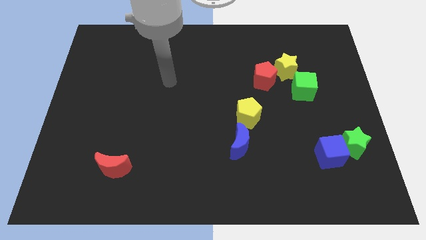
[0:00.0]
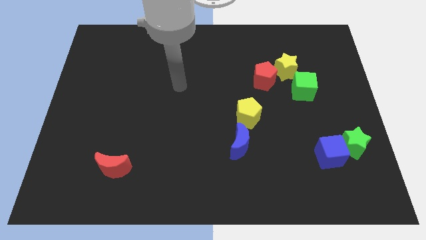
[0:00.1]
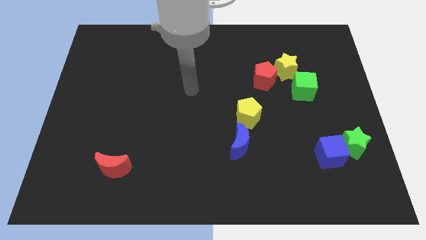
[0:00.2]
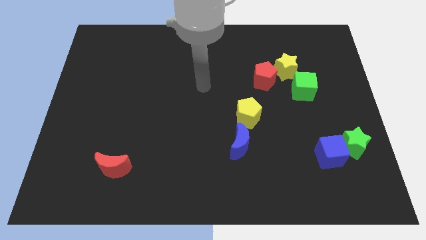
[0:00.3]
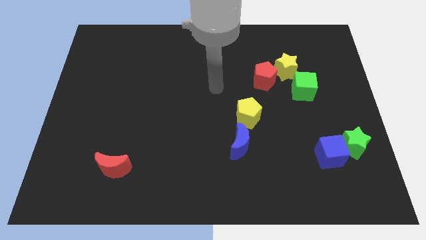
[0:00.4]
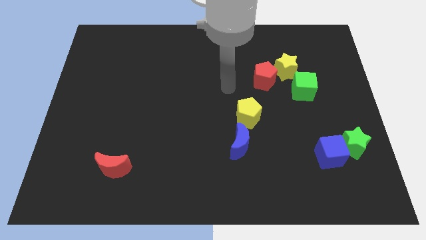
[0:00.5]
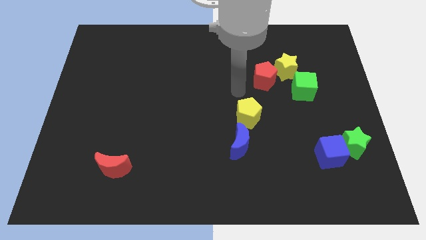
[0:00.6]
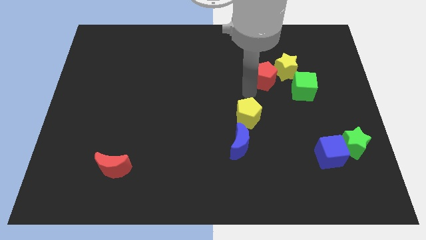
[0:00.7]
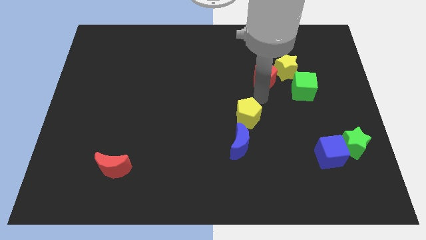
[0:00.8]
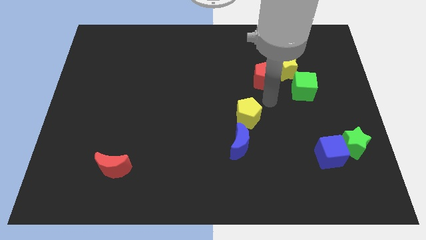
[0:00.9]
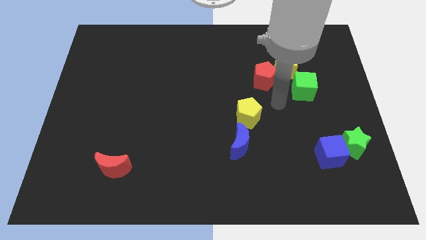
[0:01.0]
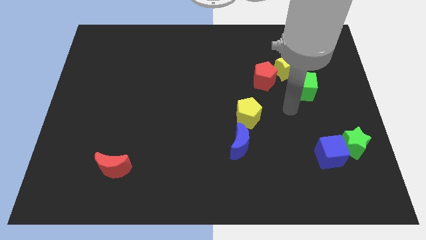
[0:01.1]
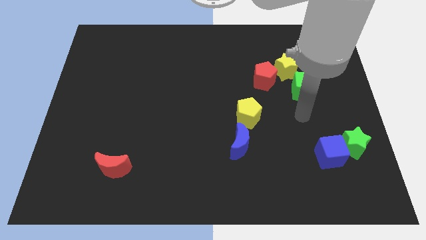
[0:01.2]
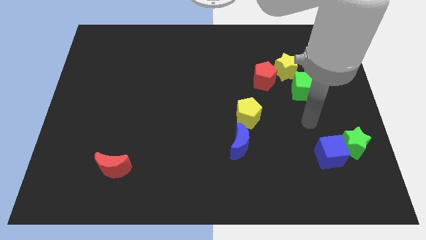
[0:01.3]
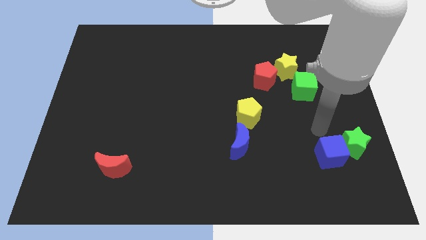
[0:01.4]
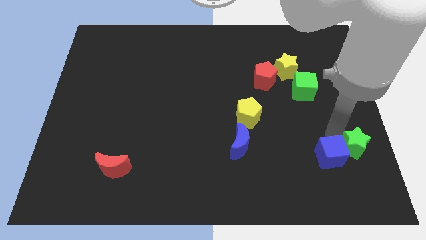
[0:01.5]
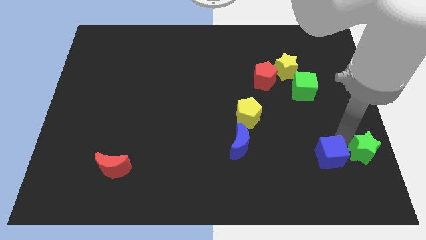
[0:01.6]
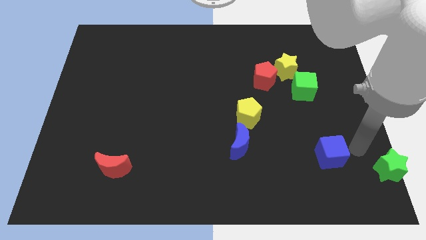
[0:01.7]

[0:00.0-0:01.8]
pull the blue cube apart from the green star

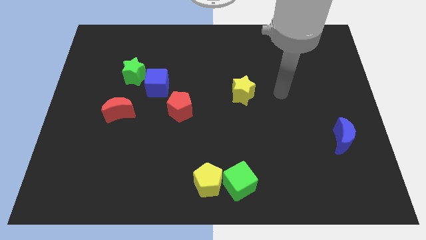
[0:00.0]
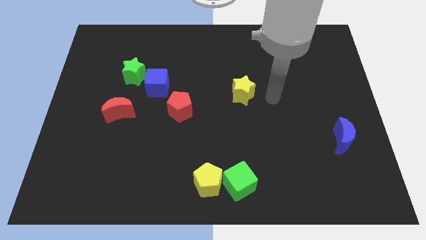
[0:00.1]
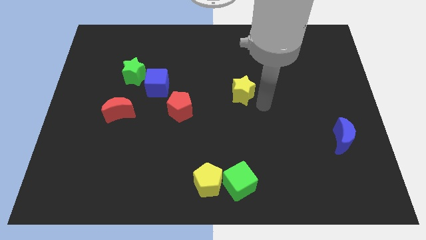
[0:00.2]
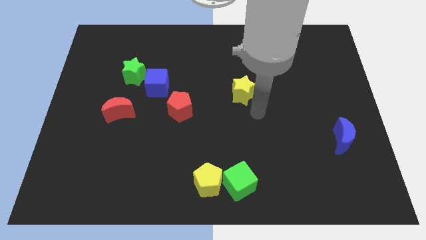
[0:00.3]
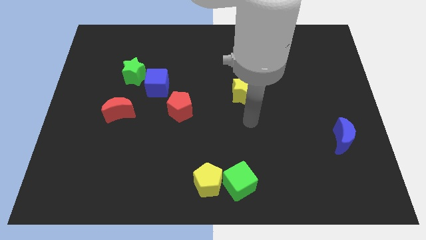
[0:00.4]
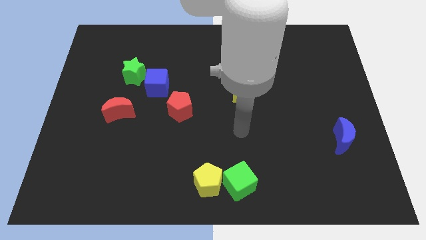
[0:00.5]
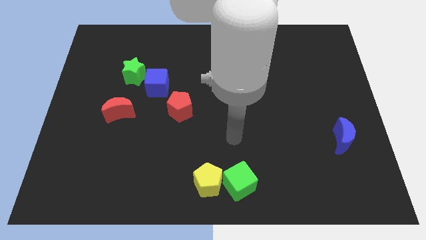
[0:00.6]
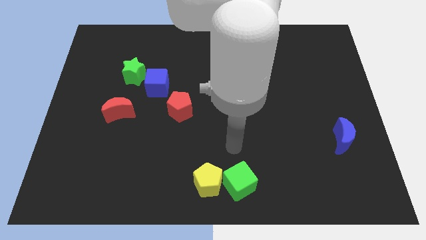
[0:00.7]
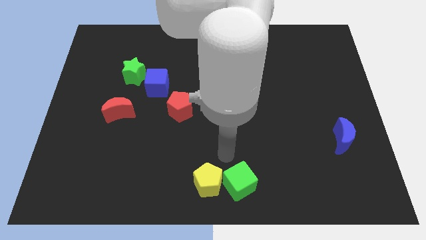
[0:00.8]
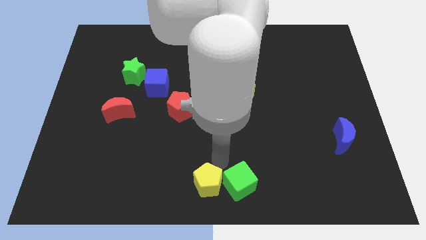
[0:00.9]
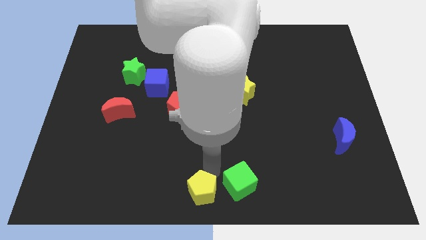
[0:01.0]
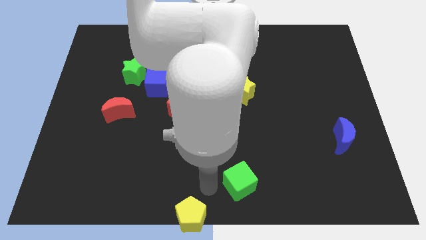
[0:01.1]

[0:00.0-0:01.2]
pull the green cube apart from the yellow pentagon

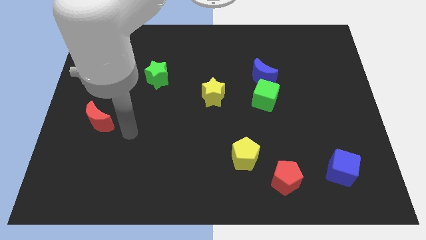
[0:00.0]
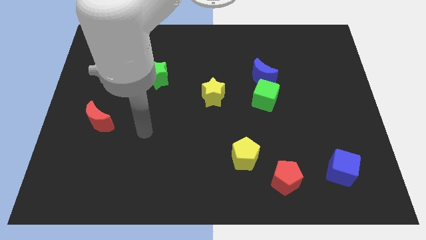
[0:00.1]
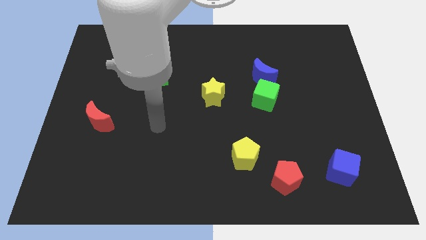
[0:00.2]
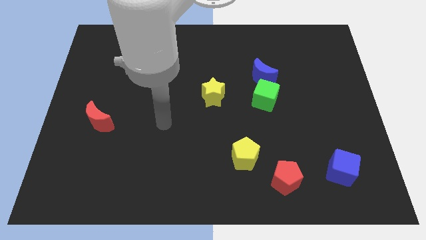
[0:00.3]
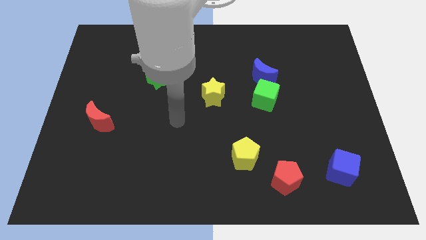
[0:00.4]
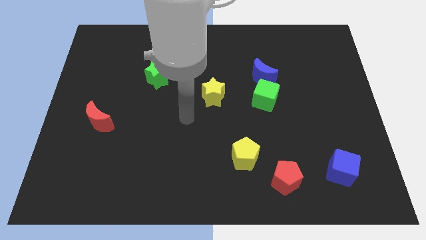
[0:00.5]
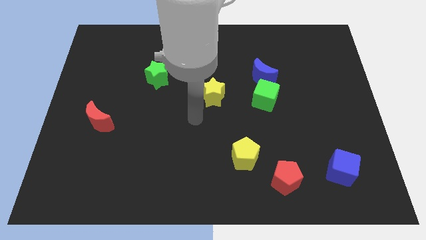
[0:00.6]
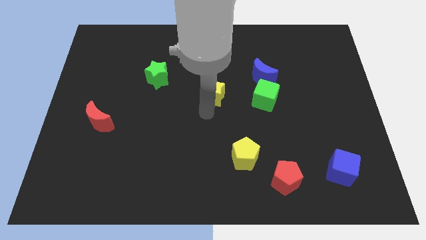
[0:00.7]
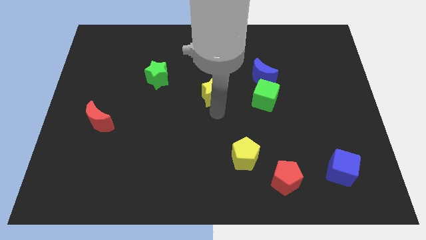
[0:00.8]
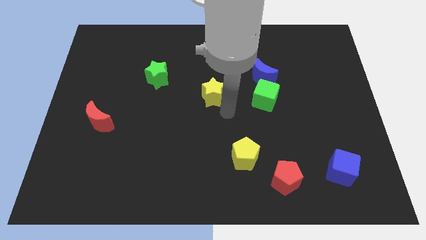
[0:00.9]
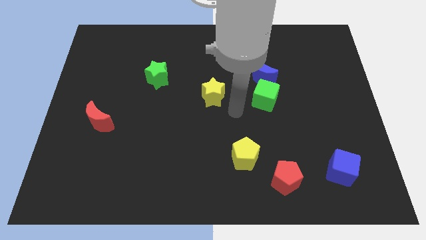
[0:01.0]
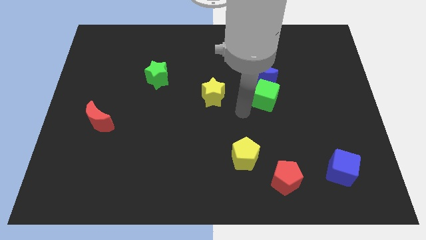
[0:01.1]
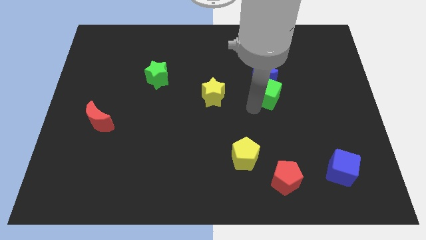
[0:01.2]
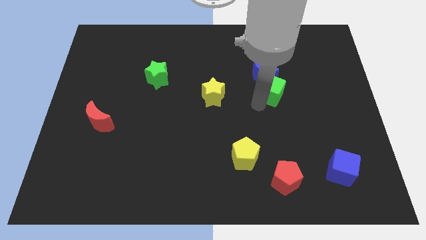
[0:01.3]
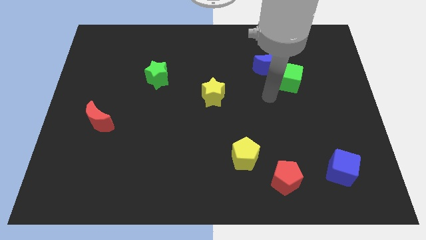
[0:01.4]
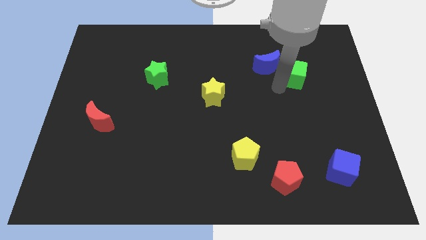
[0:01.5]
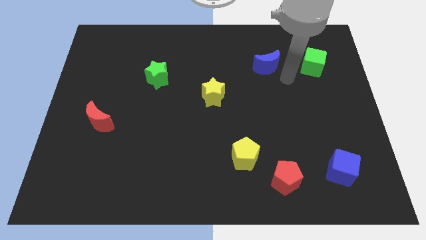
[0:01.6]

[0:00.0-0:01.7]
pull the blue moon apart from the green cube

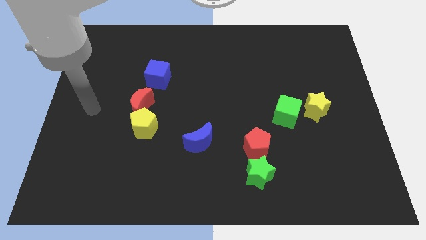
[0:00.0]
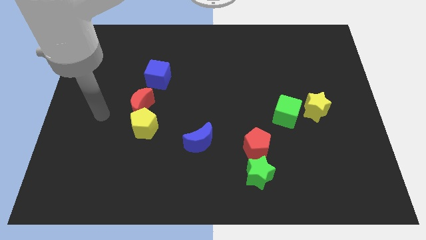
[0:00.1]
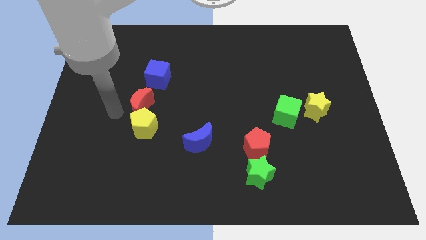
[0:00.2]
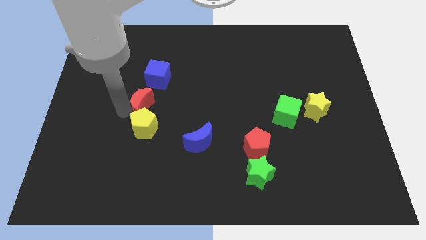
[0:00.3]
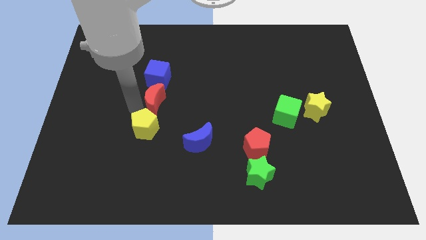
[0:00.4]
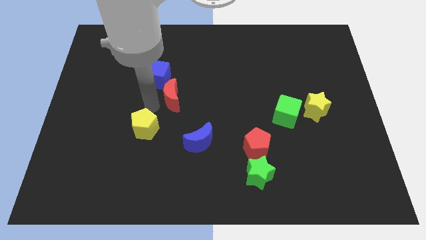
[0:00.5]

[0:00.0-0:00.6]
separate the yellow pentagon from the red moon

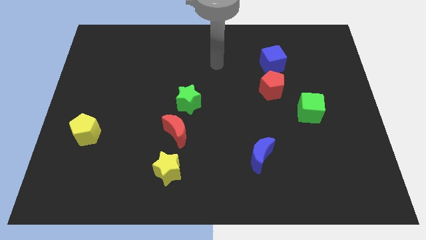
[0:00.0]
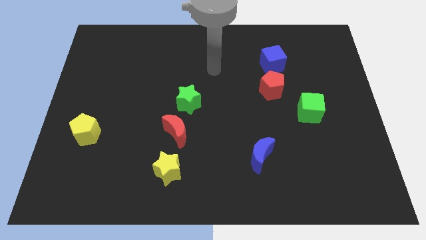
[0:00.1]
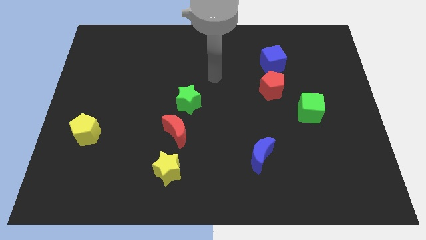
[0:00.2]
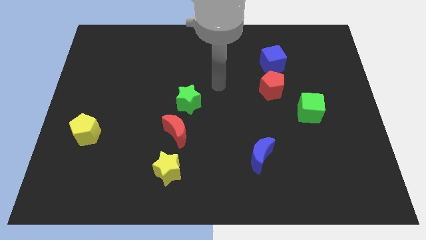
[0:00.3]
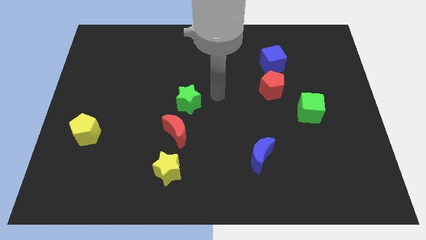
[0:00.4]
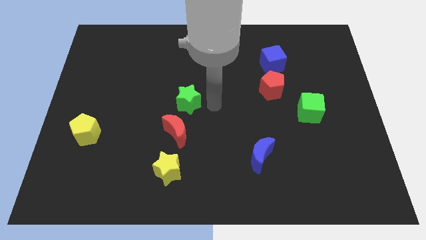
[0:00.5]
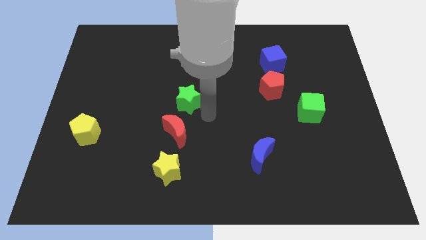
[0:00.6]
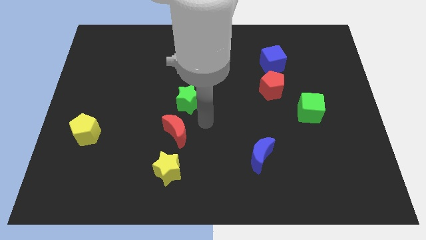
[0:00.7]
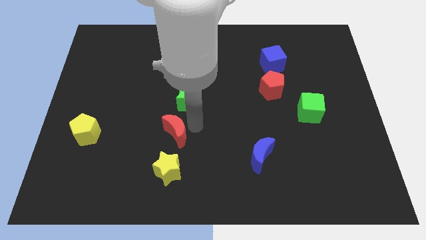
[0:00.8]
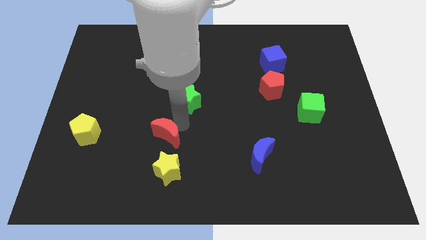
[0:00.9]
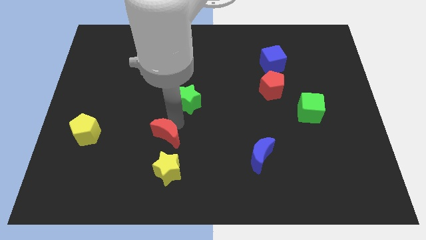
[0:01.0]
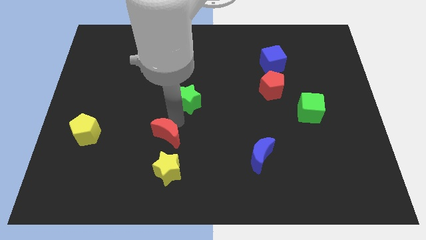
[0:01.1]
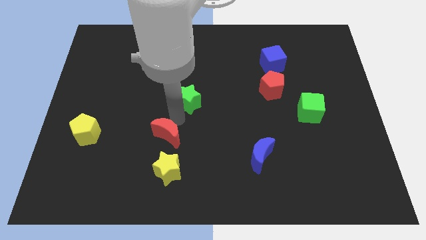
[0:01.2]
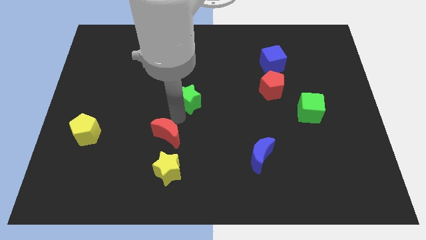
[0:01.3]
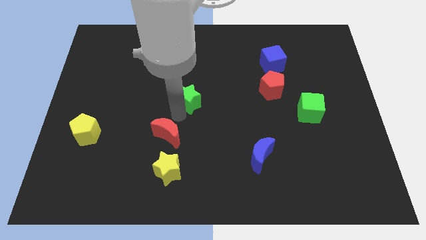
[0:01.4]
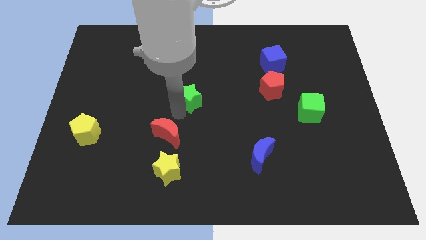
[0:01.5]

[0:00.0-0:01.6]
separate the green star from the red moon

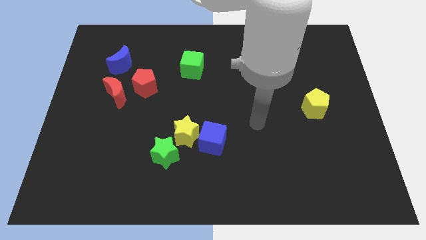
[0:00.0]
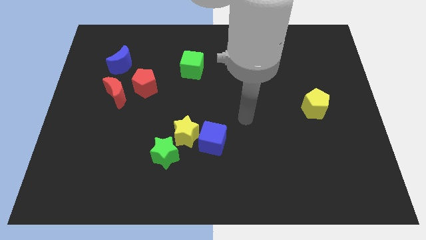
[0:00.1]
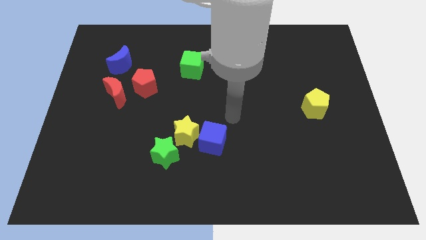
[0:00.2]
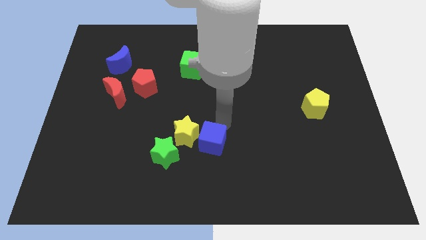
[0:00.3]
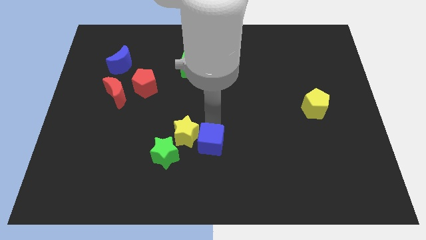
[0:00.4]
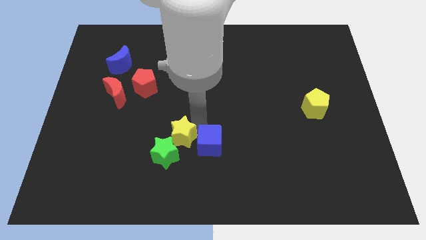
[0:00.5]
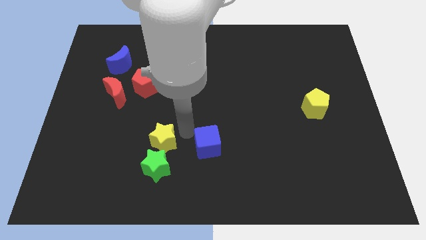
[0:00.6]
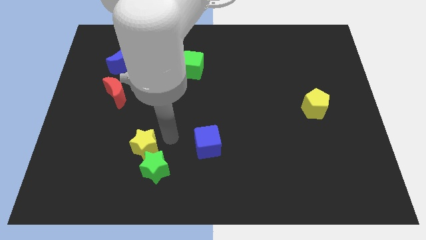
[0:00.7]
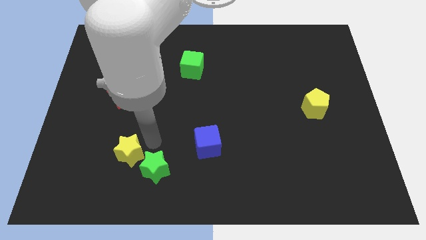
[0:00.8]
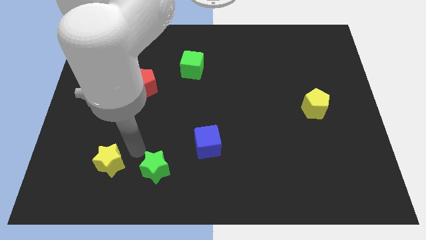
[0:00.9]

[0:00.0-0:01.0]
separate the green star from the yellow star

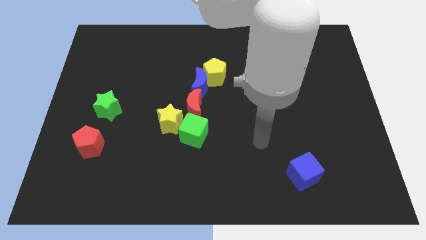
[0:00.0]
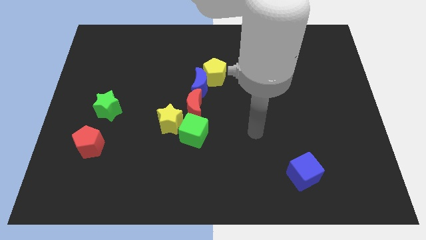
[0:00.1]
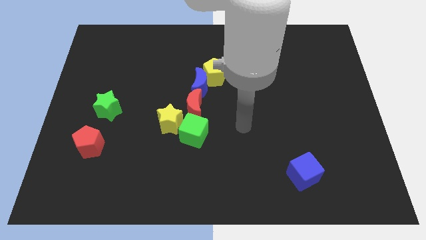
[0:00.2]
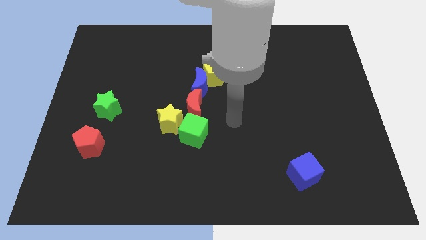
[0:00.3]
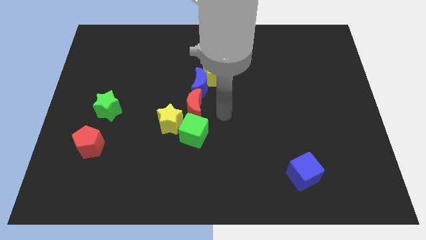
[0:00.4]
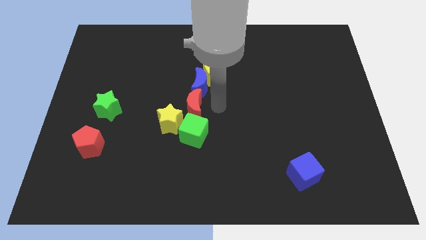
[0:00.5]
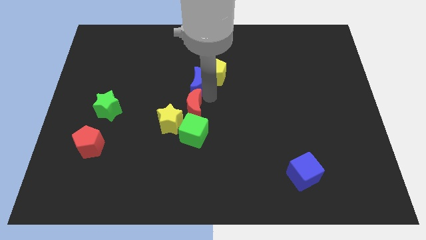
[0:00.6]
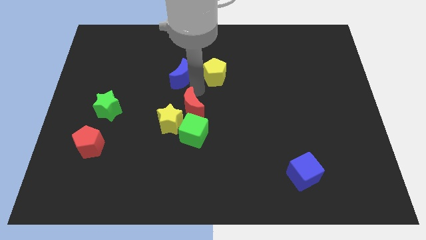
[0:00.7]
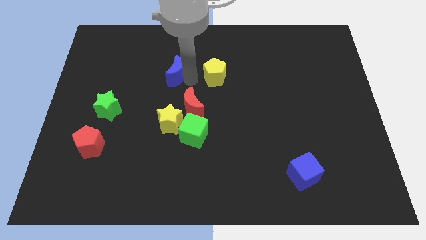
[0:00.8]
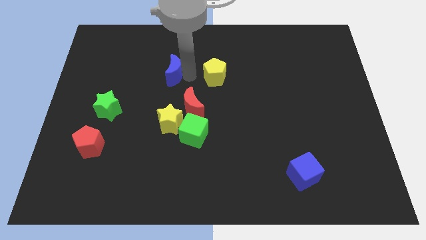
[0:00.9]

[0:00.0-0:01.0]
move the yellow pentagon away from the blue moon

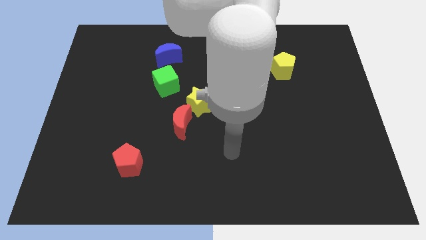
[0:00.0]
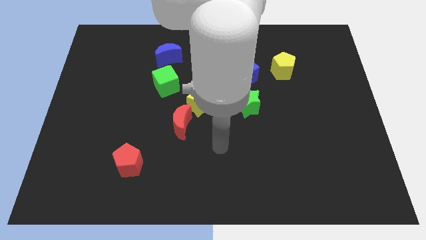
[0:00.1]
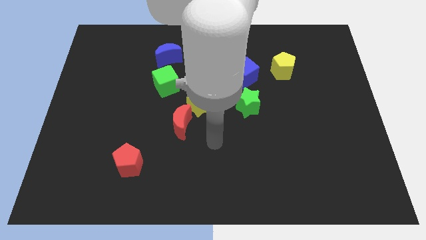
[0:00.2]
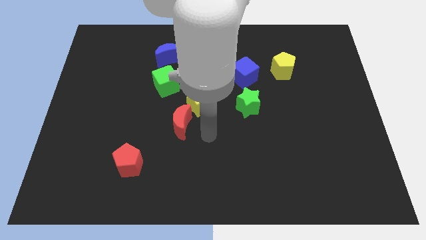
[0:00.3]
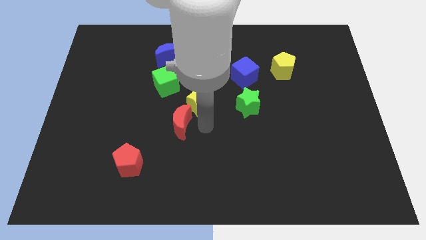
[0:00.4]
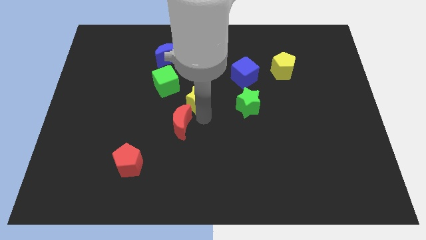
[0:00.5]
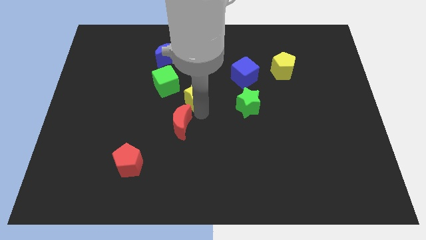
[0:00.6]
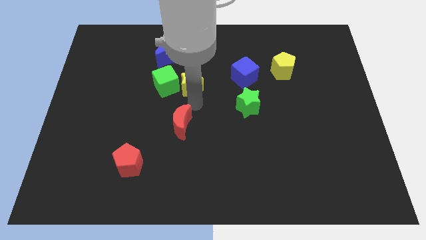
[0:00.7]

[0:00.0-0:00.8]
separate the red moon from the yellow star
